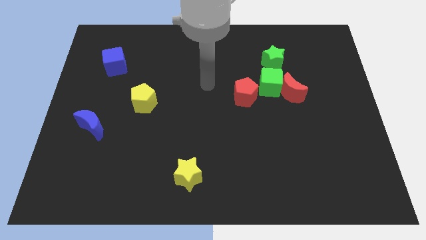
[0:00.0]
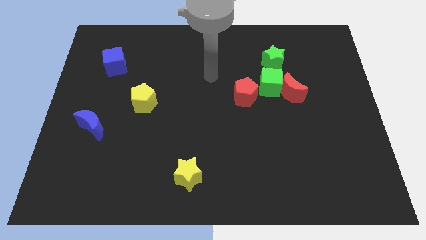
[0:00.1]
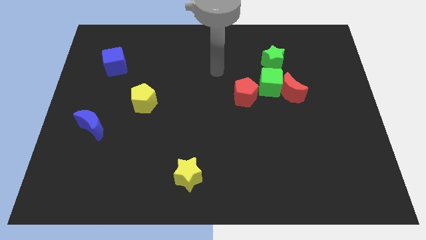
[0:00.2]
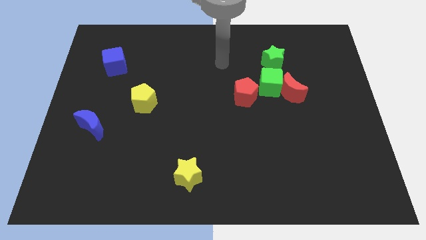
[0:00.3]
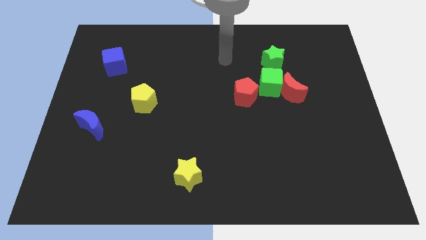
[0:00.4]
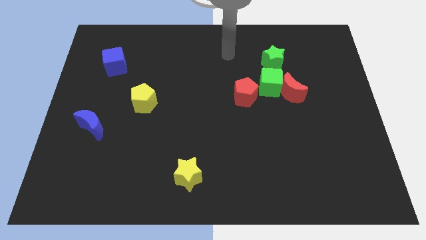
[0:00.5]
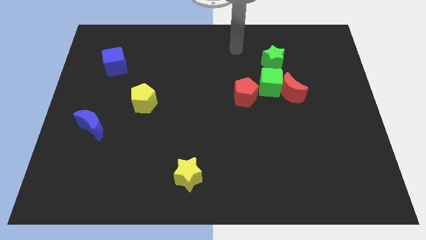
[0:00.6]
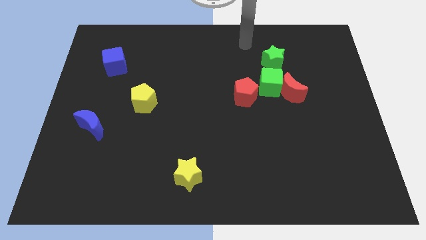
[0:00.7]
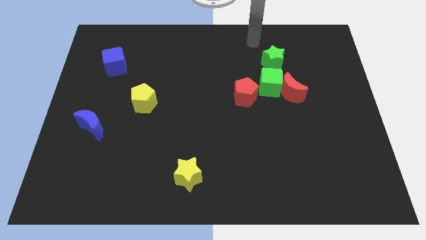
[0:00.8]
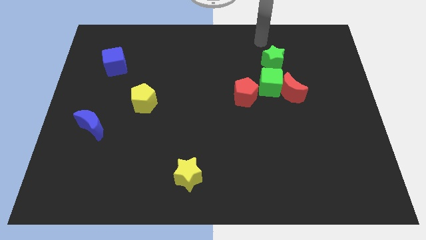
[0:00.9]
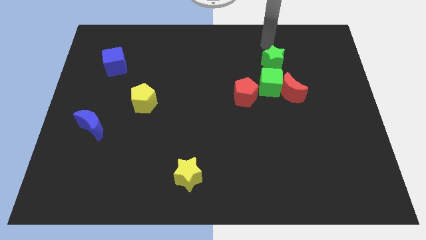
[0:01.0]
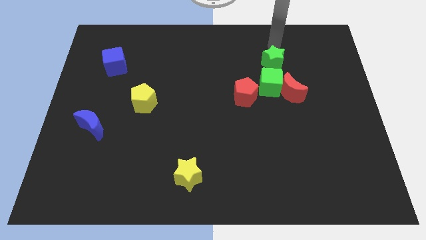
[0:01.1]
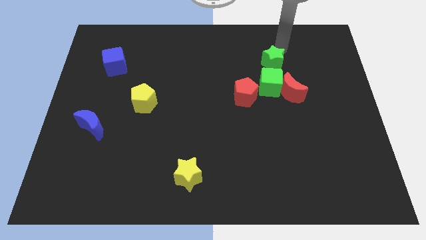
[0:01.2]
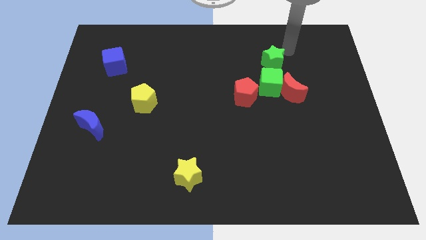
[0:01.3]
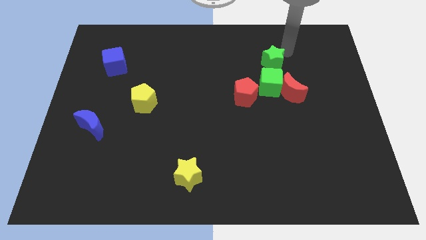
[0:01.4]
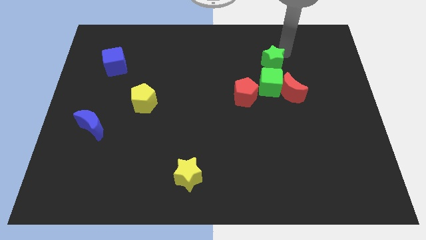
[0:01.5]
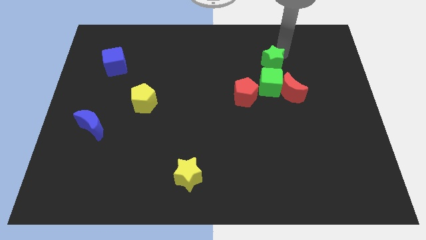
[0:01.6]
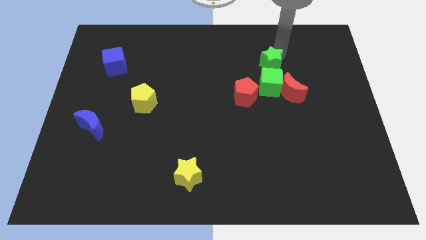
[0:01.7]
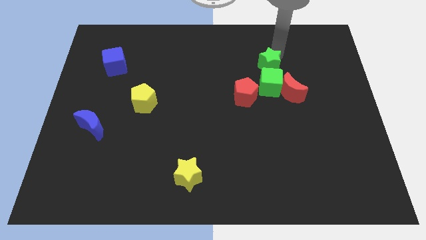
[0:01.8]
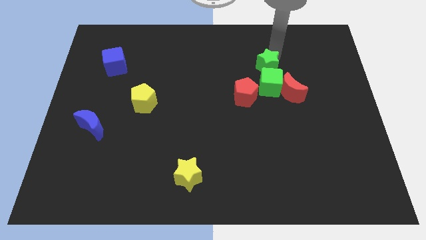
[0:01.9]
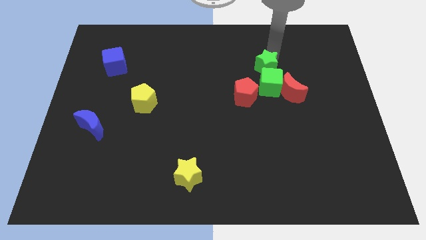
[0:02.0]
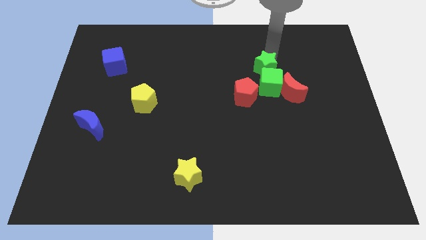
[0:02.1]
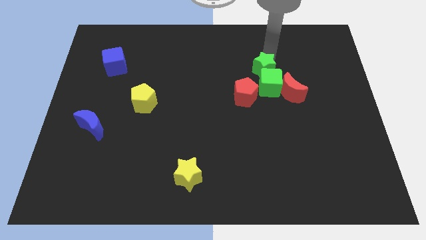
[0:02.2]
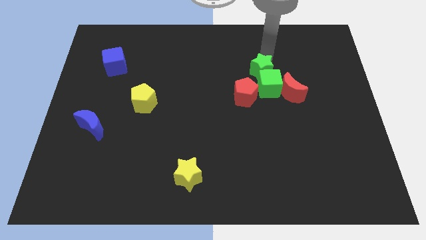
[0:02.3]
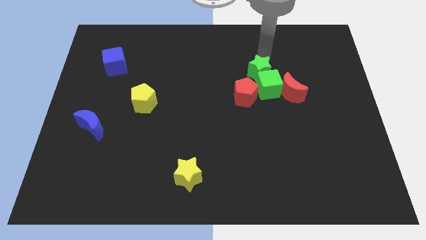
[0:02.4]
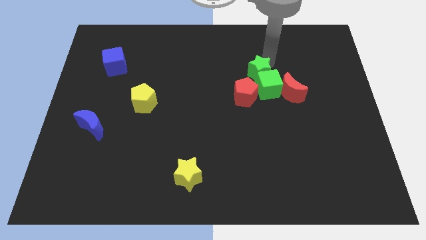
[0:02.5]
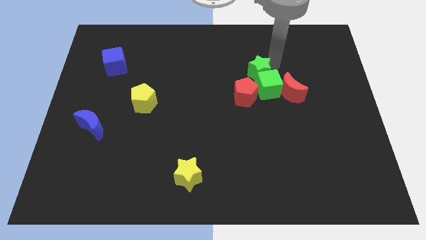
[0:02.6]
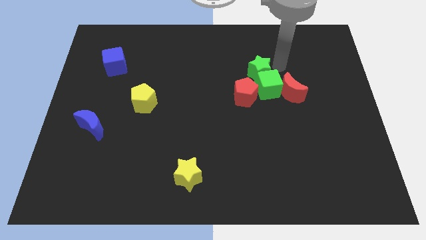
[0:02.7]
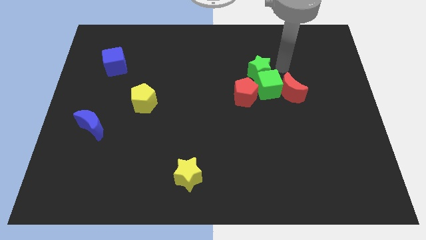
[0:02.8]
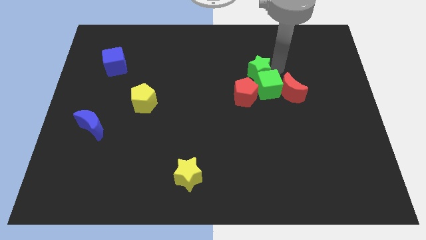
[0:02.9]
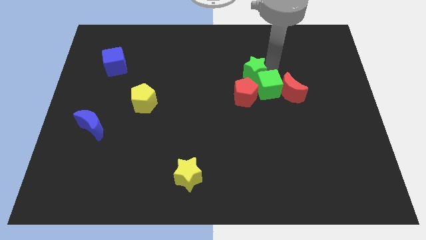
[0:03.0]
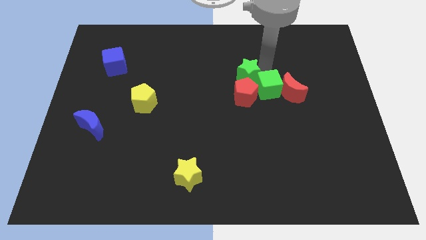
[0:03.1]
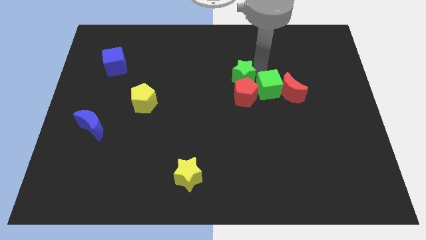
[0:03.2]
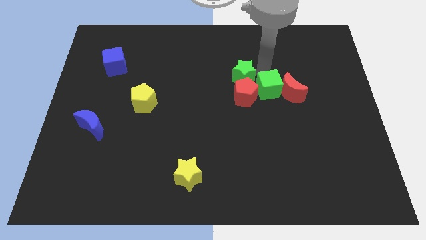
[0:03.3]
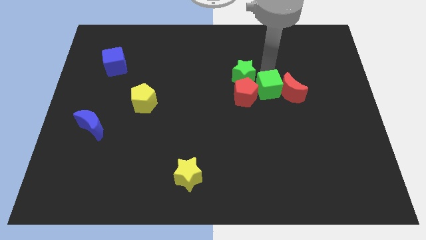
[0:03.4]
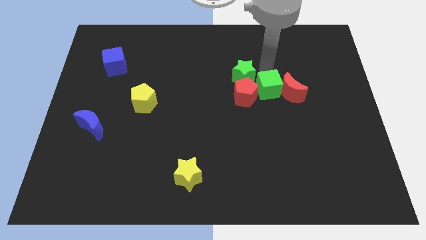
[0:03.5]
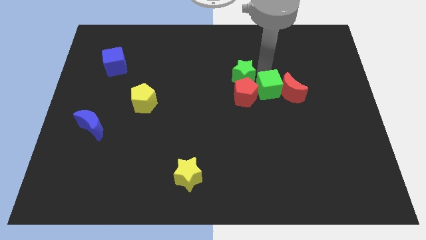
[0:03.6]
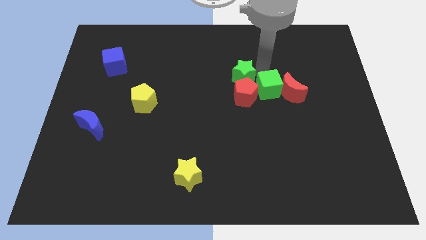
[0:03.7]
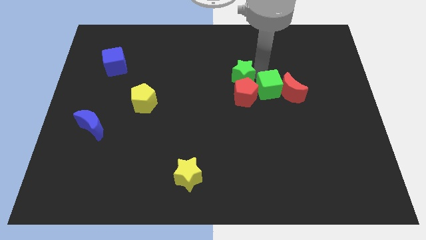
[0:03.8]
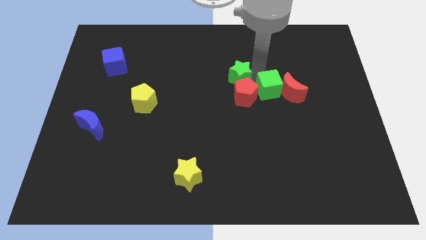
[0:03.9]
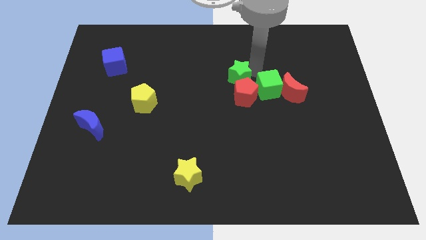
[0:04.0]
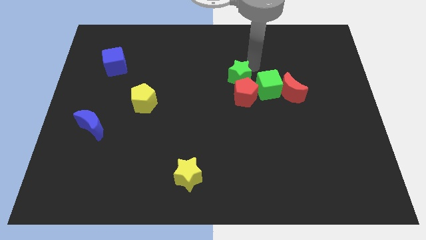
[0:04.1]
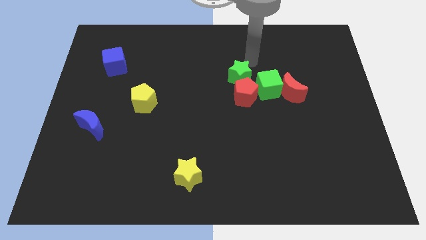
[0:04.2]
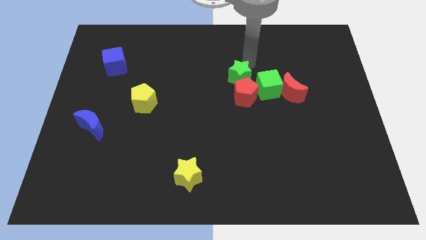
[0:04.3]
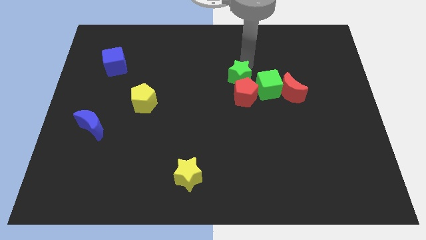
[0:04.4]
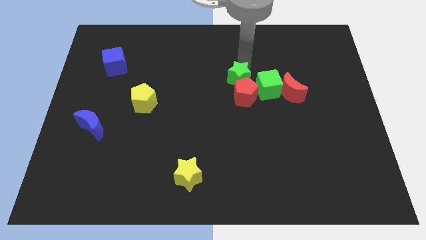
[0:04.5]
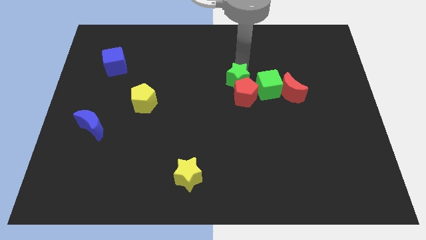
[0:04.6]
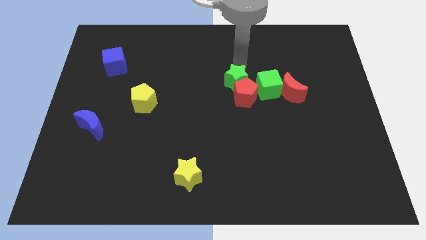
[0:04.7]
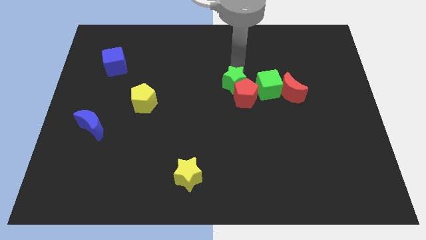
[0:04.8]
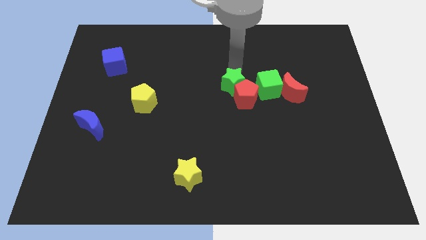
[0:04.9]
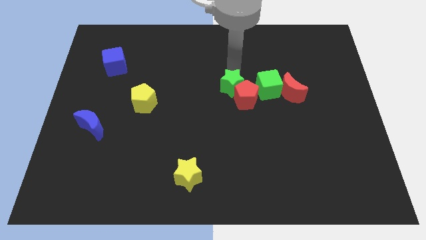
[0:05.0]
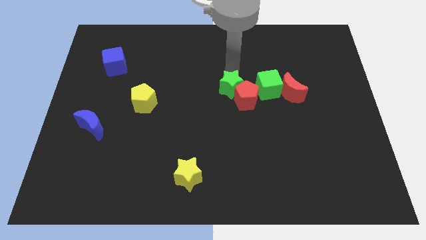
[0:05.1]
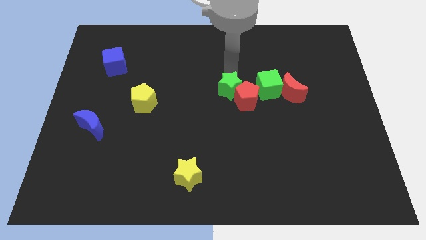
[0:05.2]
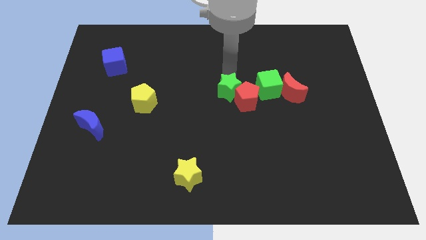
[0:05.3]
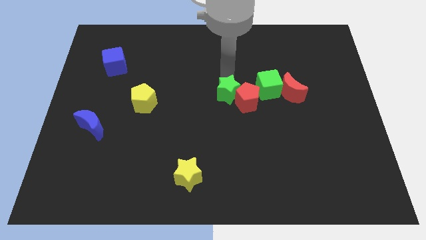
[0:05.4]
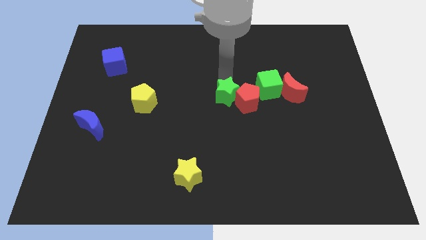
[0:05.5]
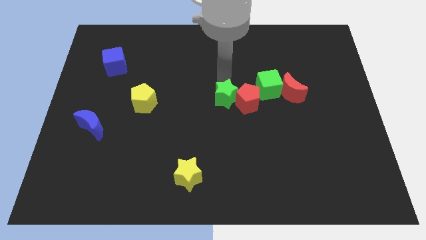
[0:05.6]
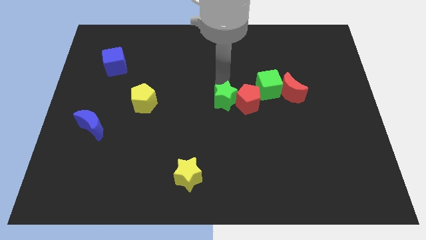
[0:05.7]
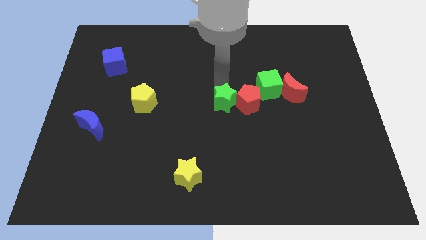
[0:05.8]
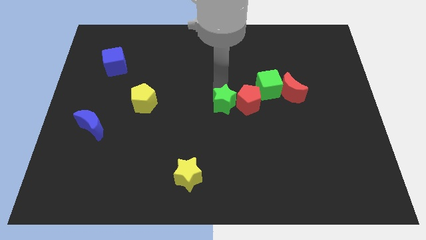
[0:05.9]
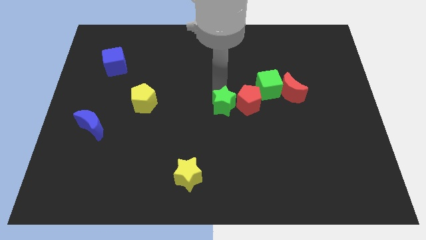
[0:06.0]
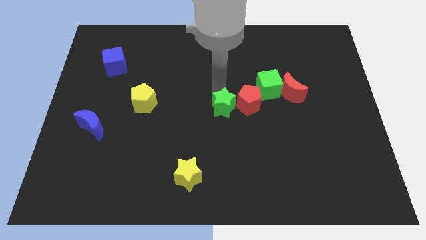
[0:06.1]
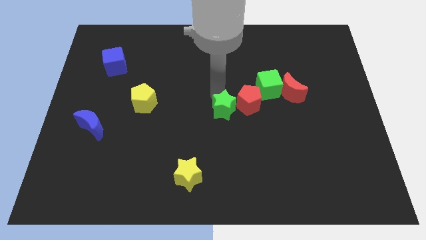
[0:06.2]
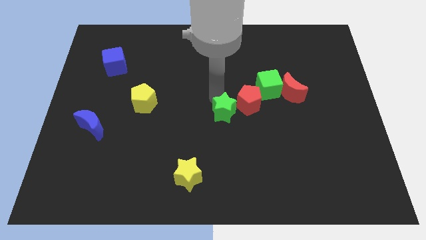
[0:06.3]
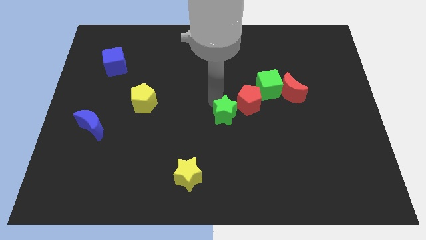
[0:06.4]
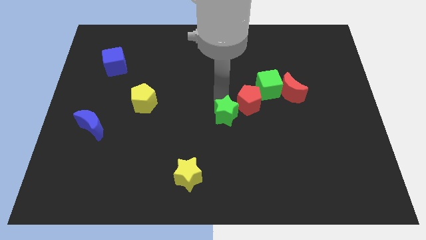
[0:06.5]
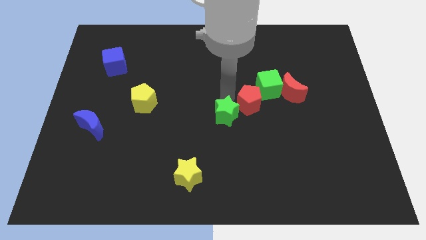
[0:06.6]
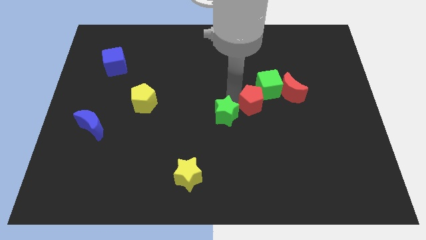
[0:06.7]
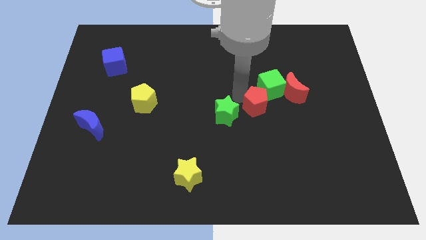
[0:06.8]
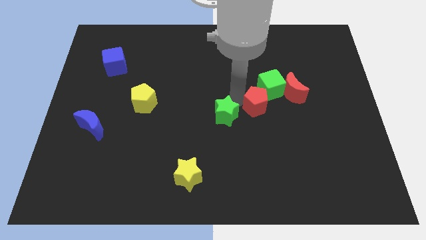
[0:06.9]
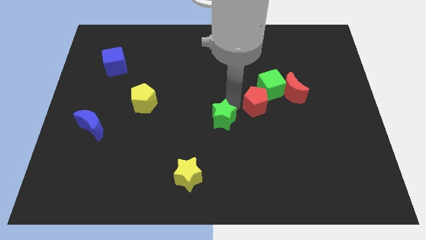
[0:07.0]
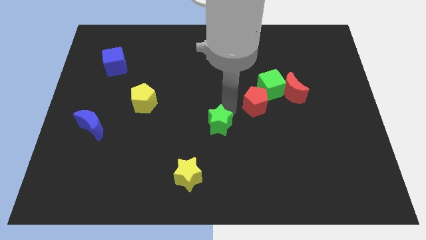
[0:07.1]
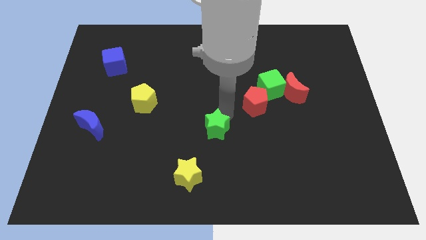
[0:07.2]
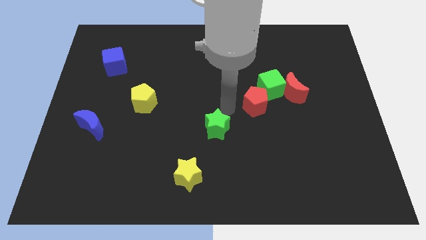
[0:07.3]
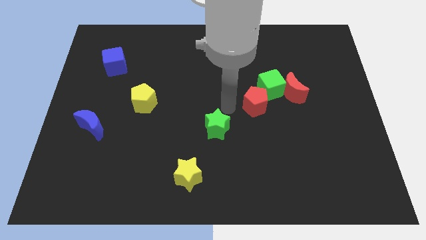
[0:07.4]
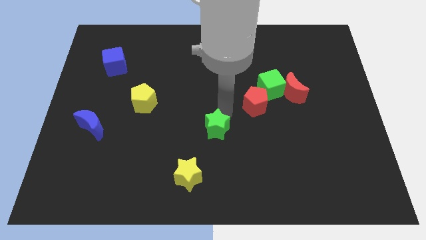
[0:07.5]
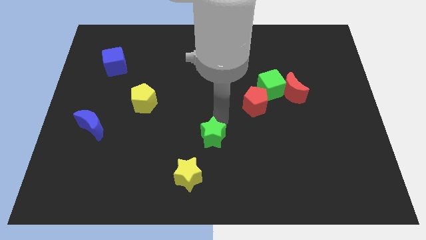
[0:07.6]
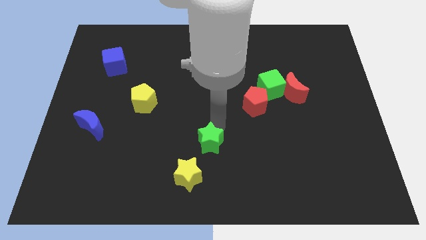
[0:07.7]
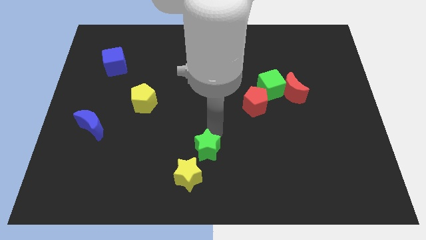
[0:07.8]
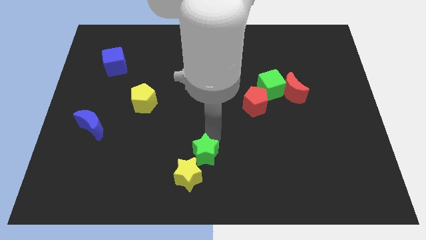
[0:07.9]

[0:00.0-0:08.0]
put the green star to the yellow star
